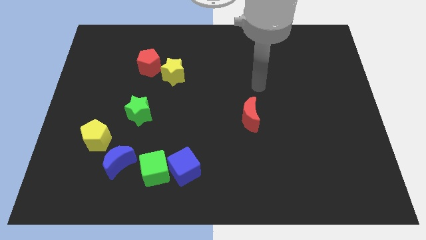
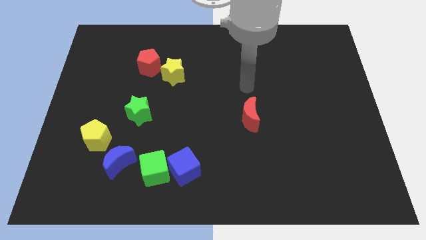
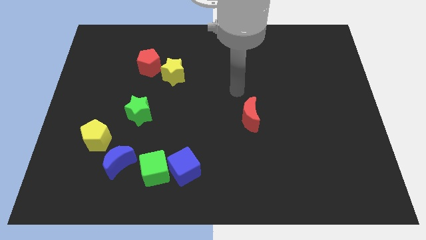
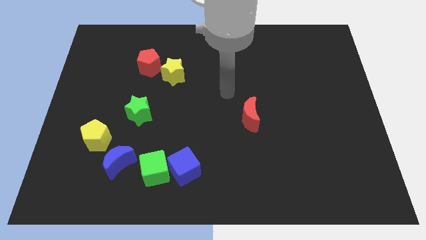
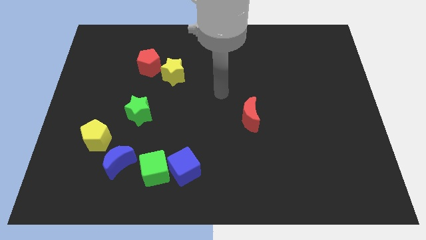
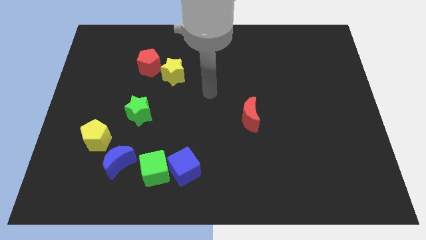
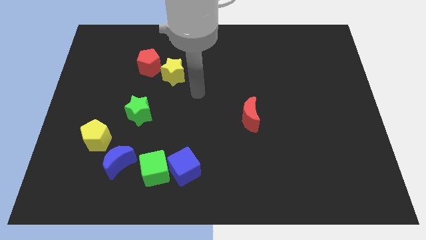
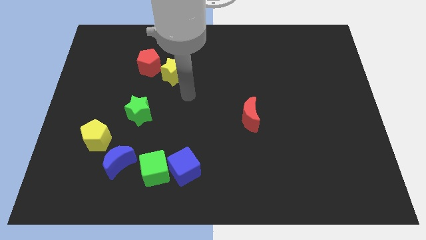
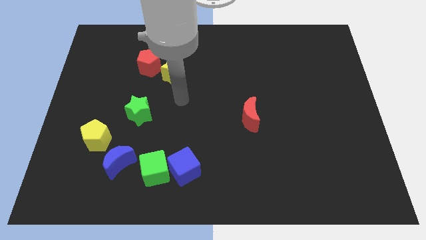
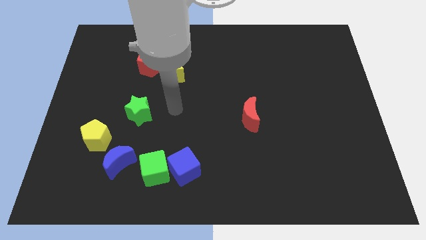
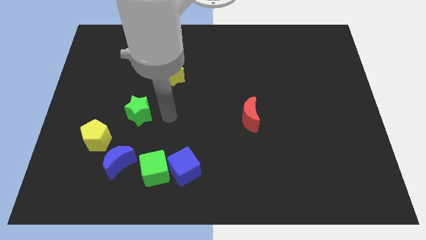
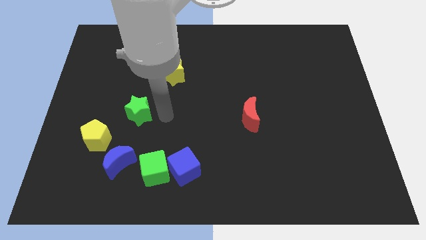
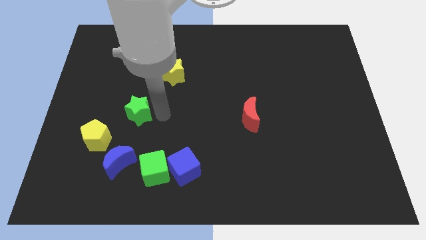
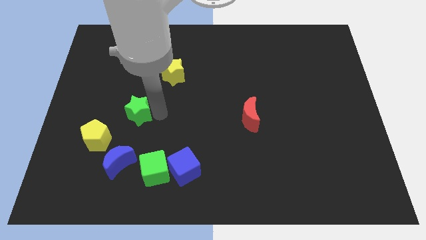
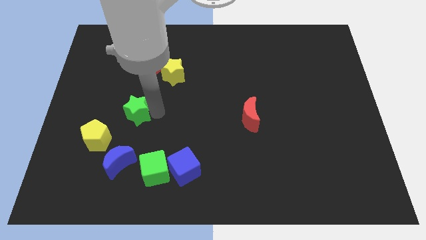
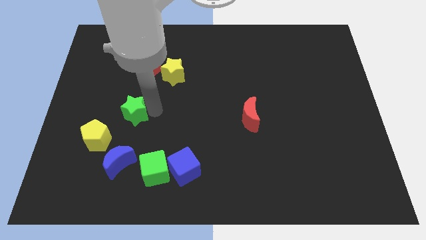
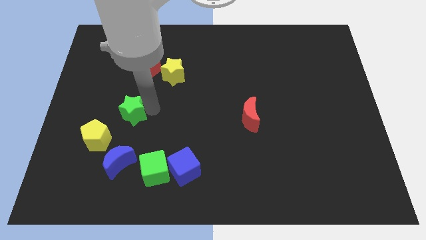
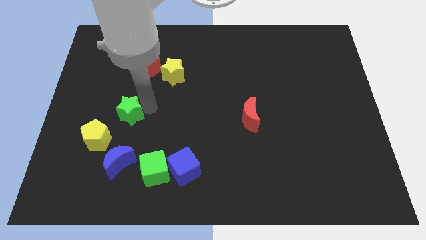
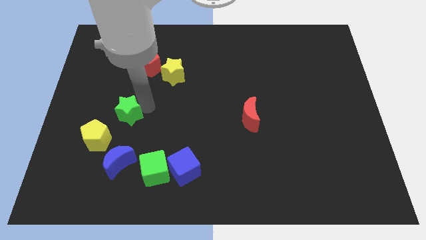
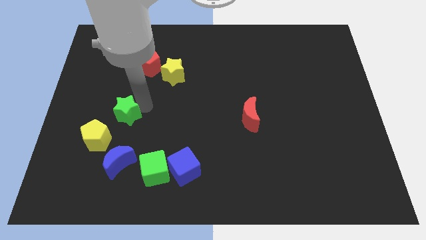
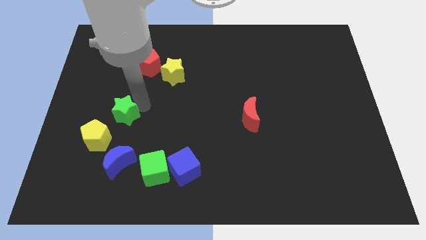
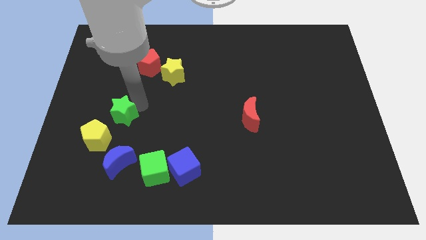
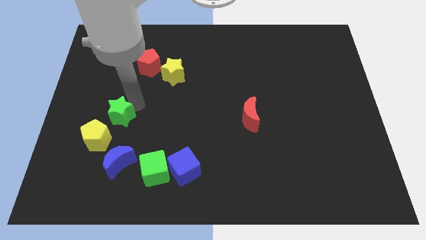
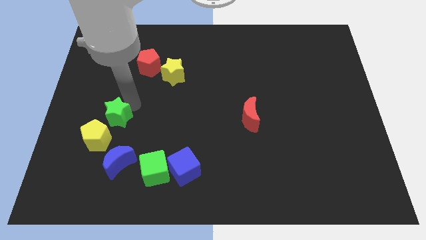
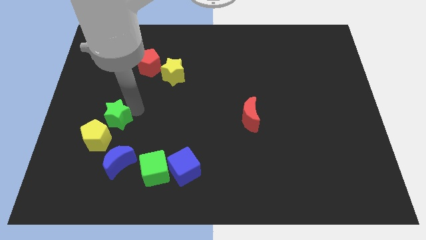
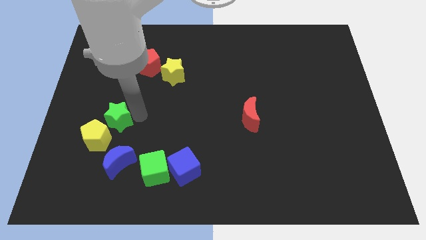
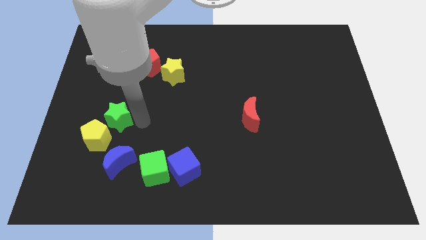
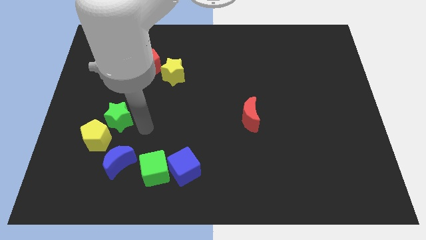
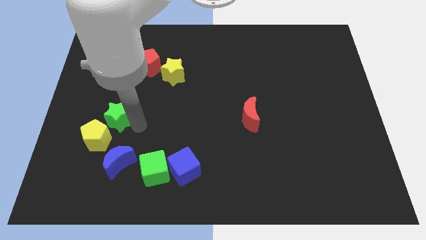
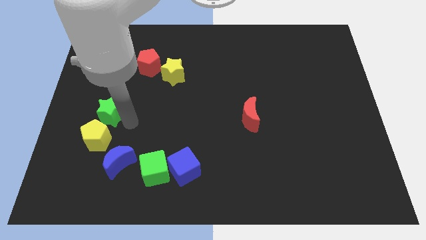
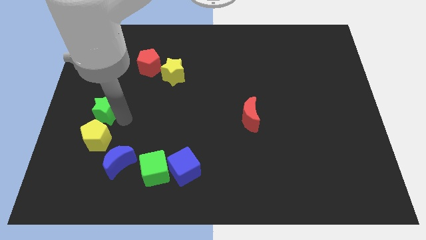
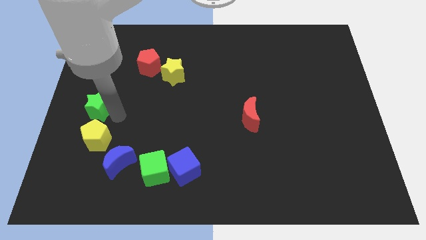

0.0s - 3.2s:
put the green star to the center left

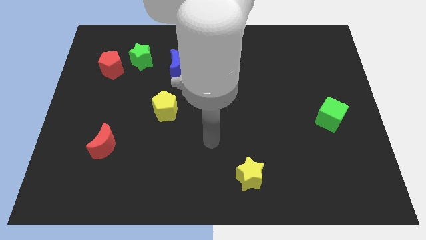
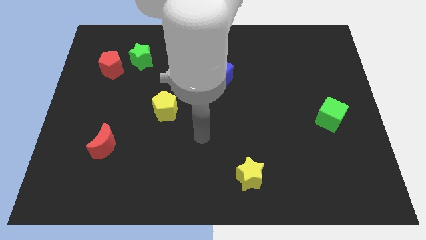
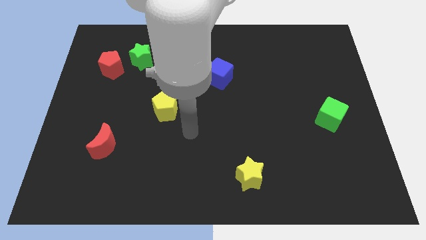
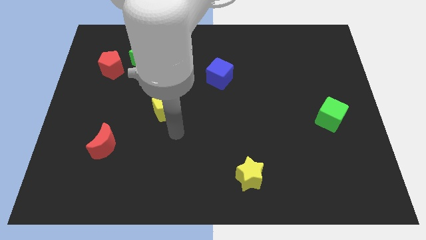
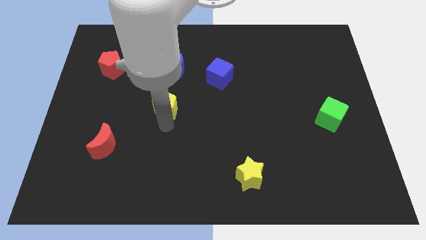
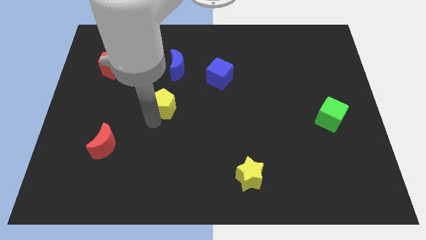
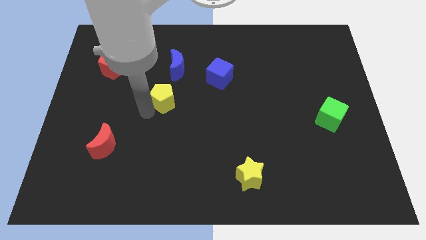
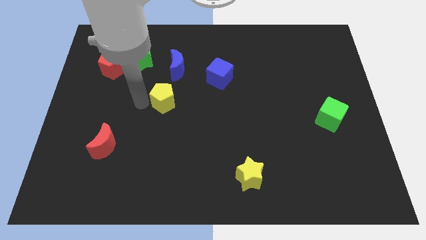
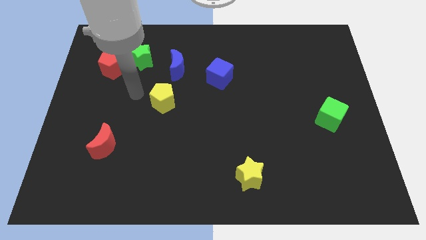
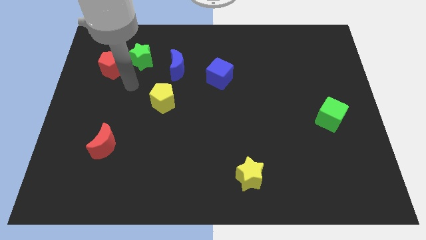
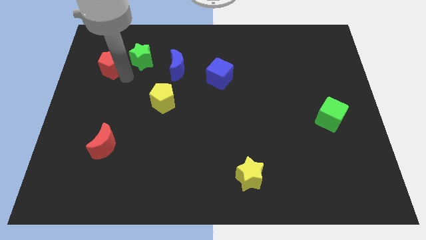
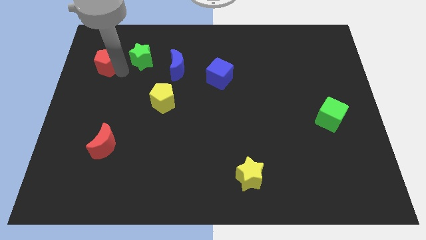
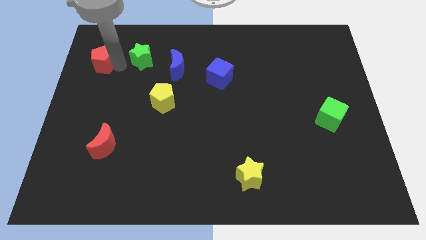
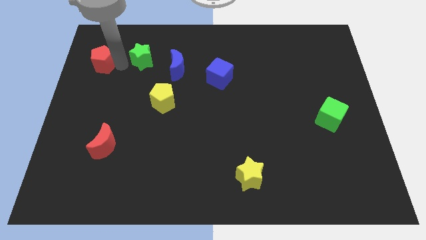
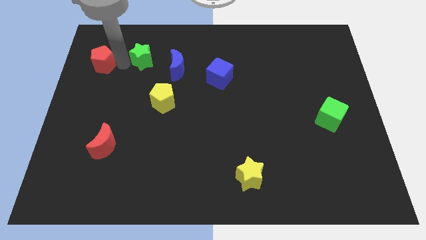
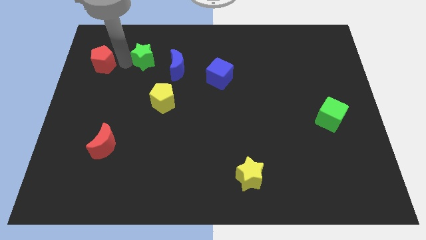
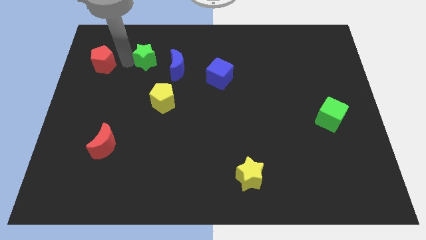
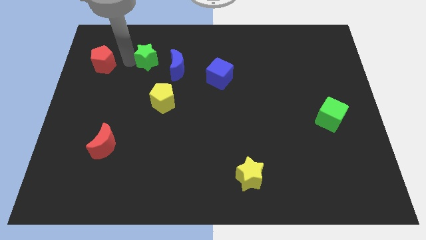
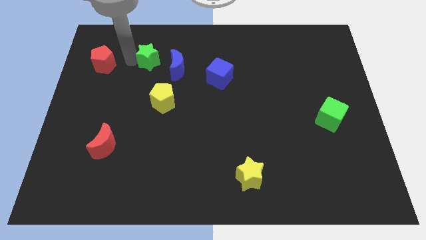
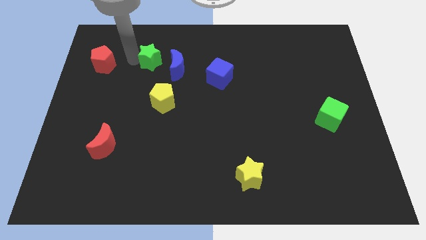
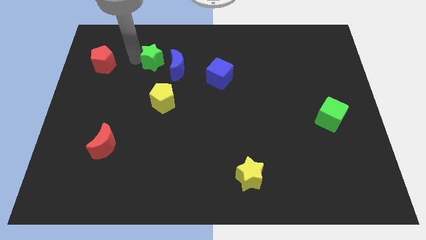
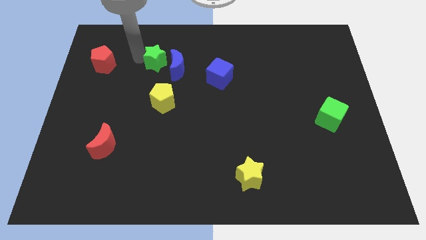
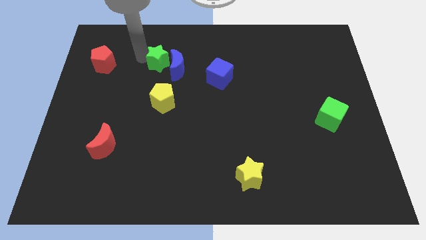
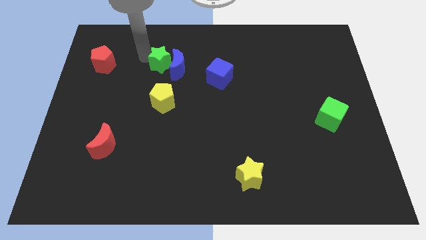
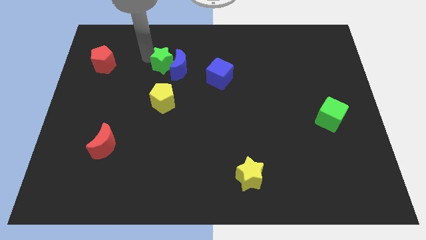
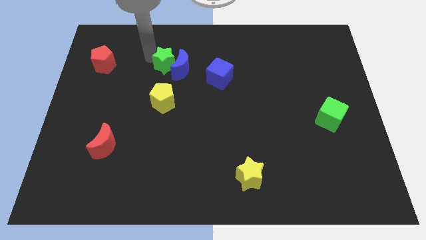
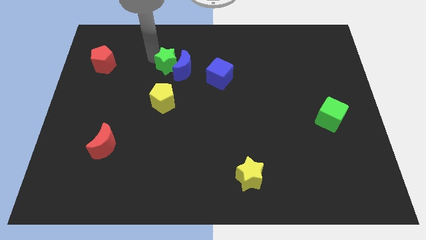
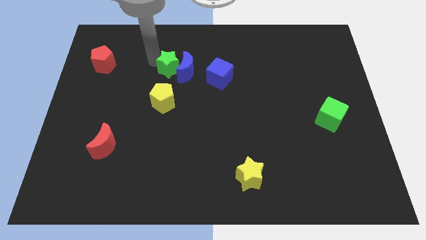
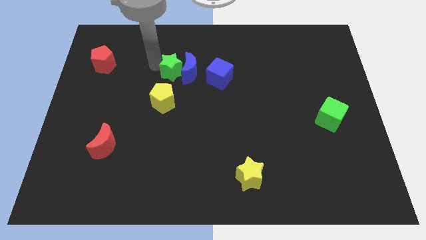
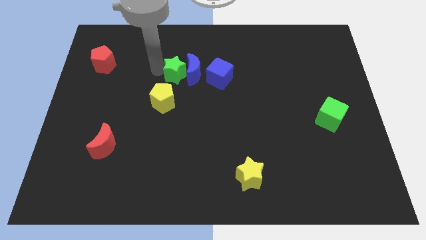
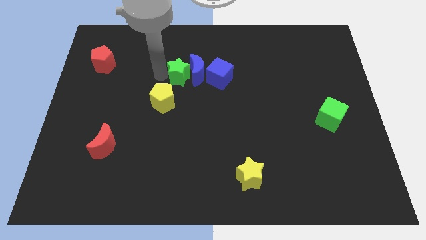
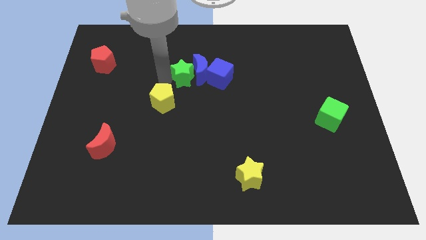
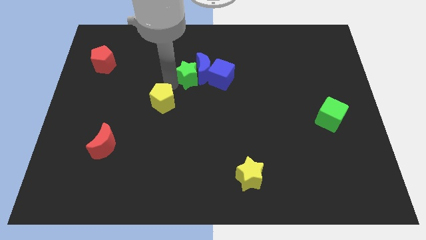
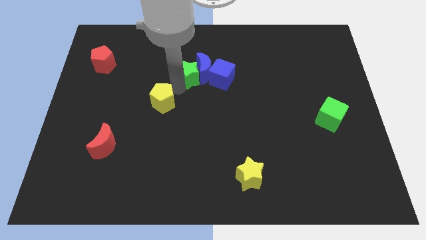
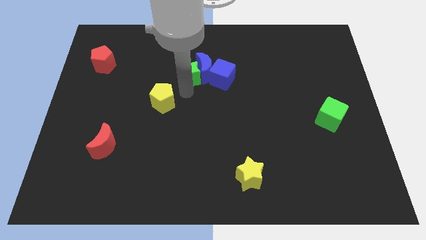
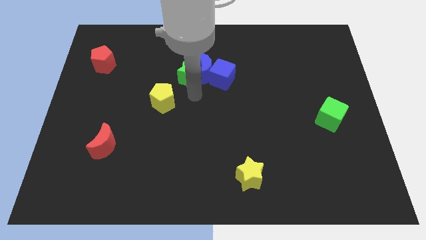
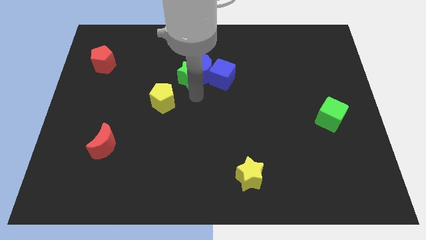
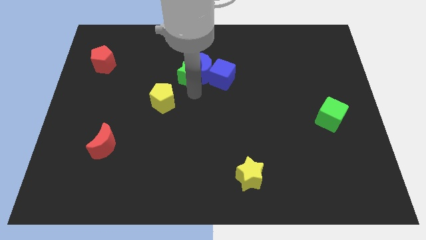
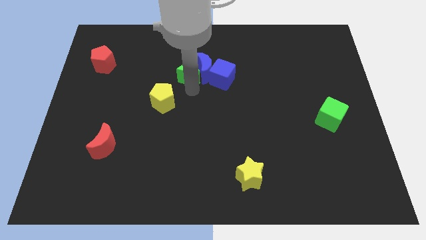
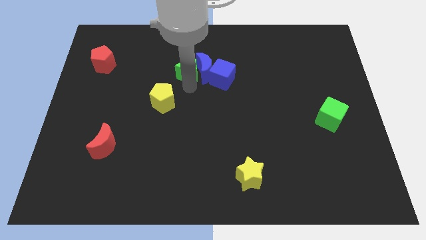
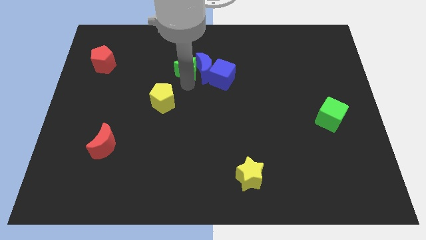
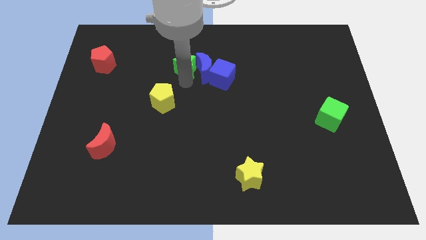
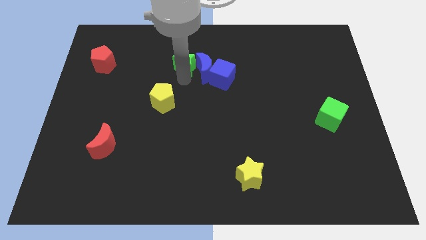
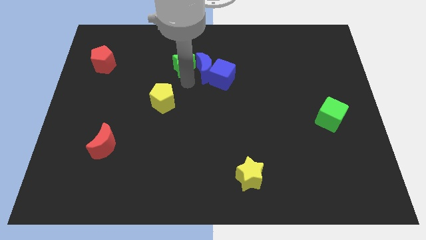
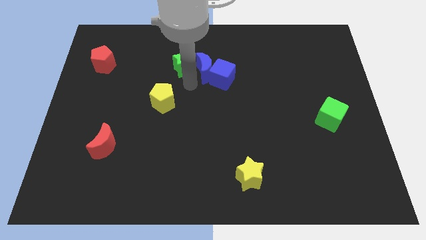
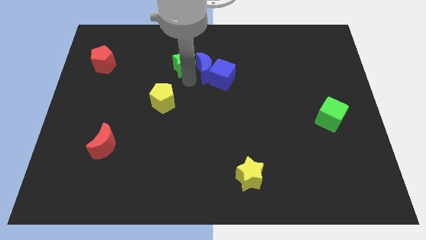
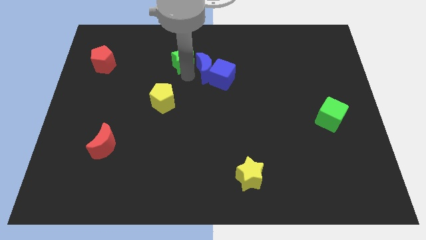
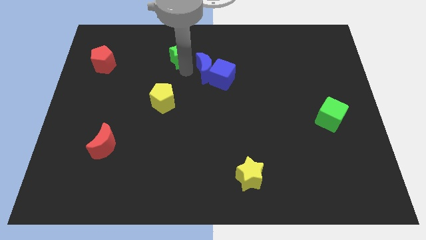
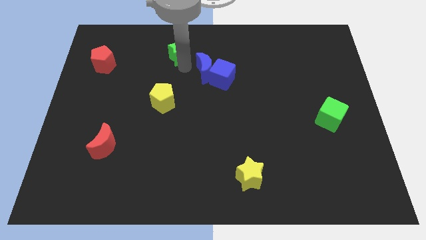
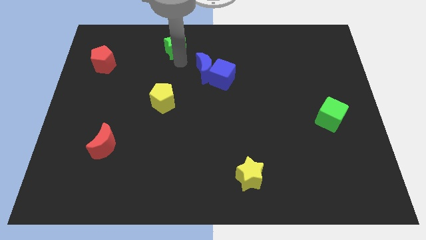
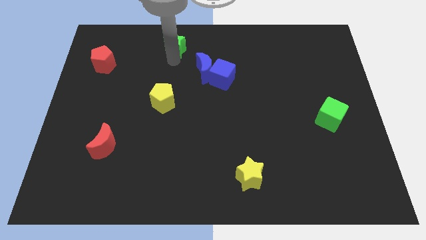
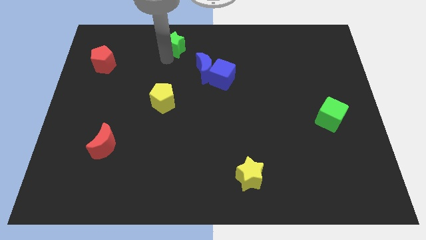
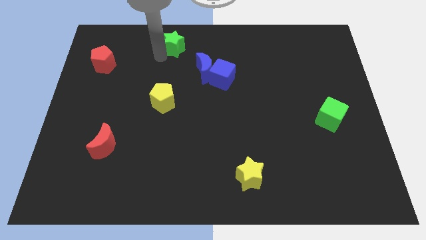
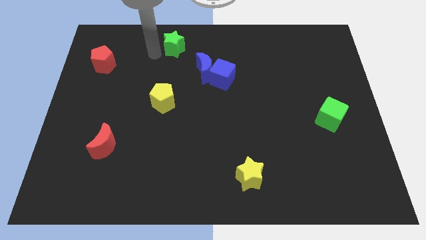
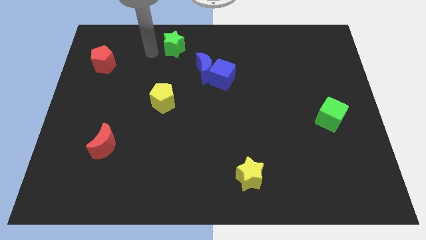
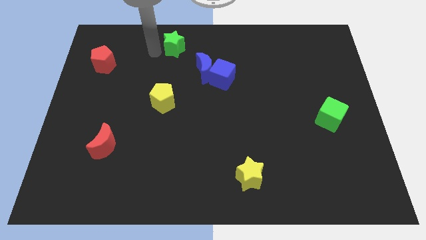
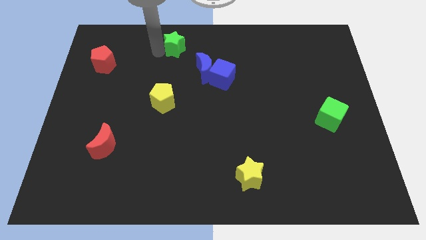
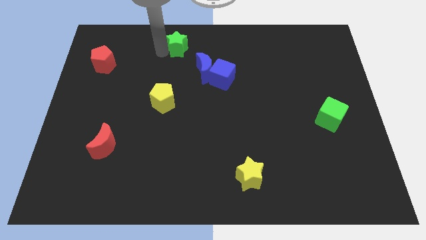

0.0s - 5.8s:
push the green star to the top side
